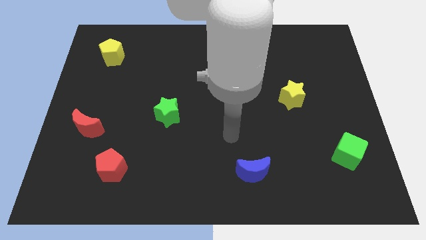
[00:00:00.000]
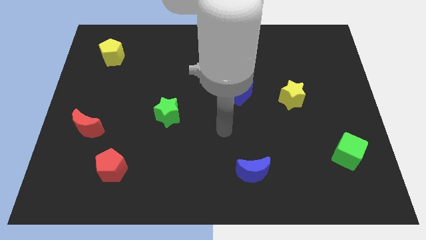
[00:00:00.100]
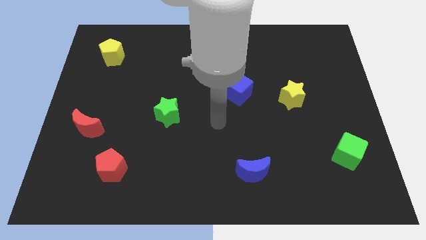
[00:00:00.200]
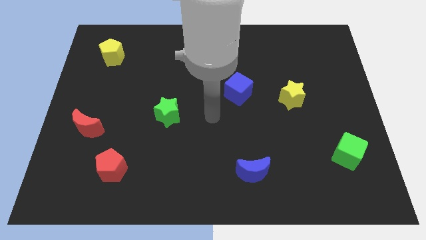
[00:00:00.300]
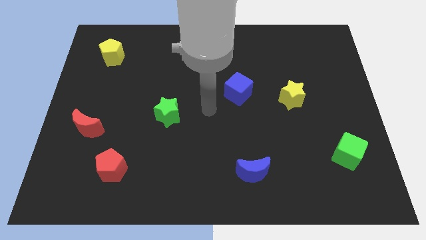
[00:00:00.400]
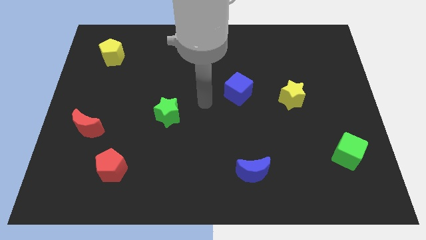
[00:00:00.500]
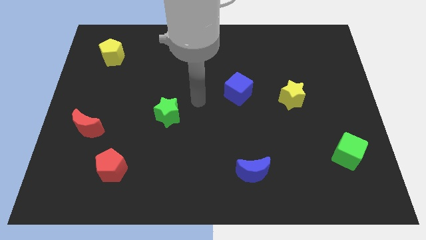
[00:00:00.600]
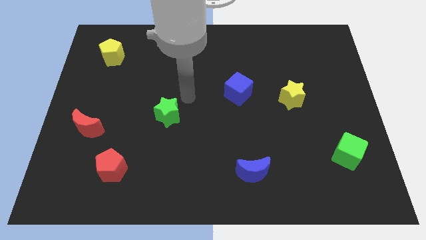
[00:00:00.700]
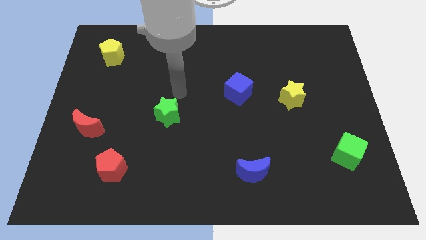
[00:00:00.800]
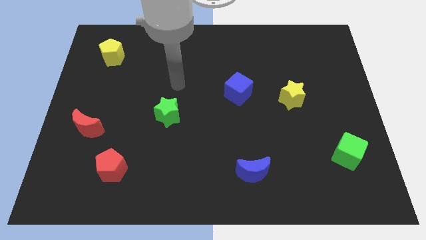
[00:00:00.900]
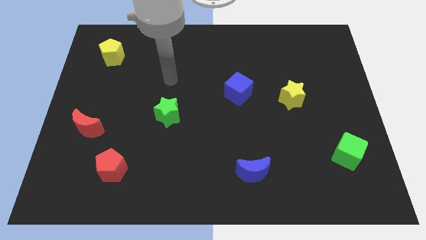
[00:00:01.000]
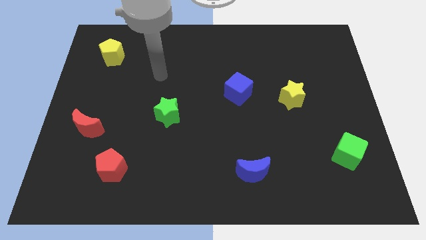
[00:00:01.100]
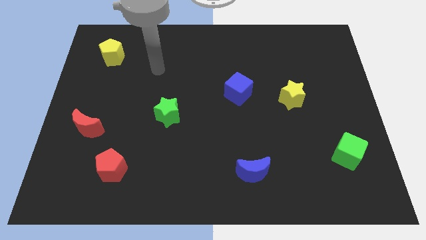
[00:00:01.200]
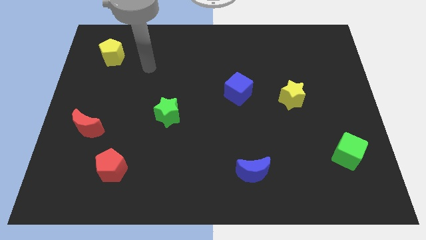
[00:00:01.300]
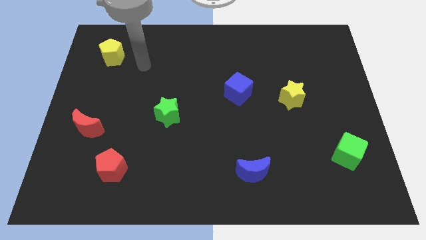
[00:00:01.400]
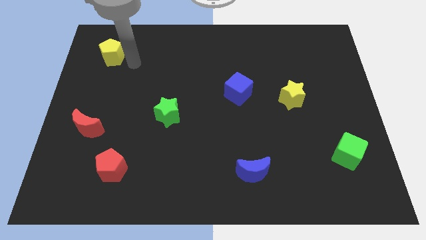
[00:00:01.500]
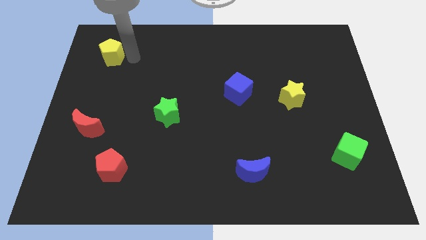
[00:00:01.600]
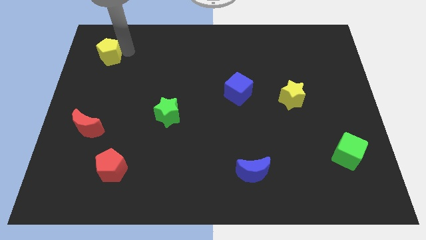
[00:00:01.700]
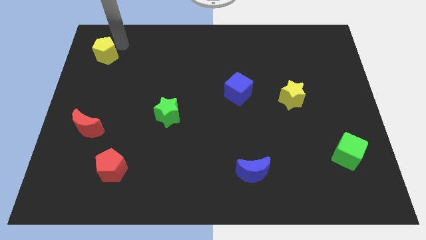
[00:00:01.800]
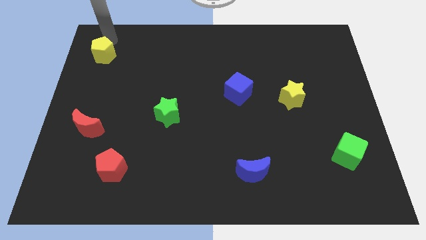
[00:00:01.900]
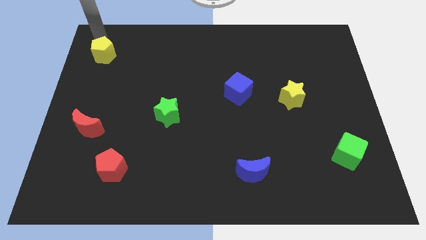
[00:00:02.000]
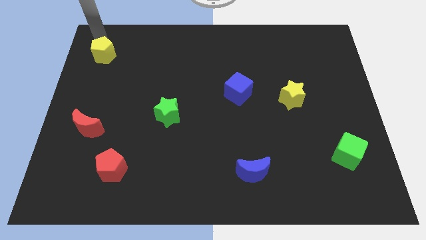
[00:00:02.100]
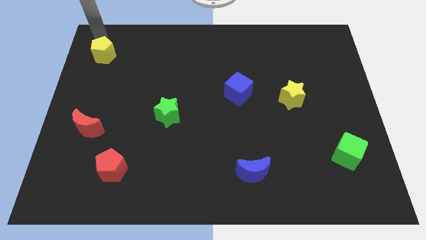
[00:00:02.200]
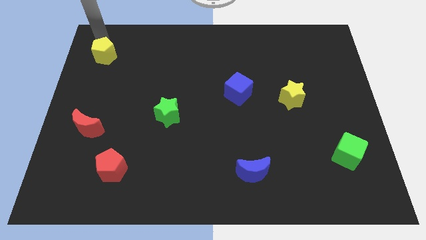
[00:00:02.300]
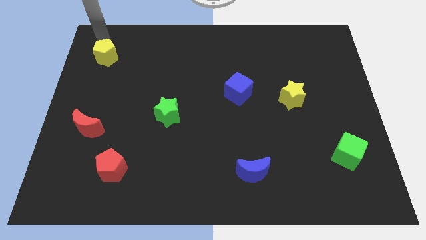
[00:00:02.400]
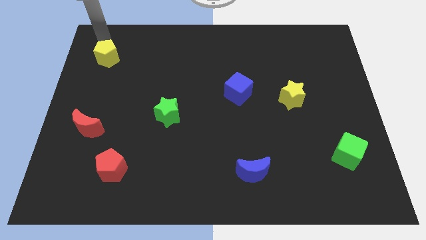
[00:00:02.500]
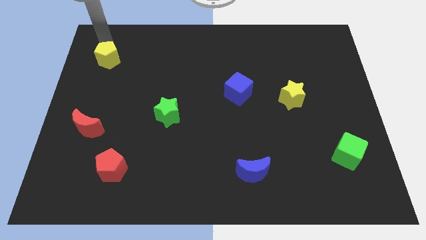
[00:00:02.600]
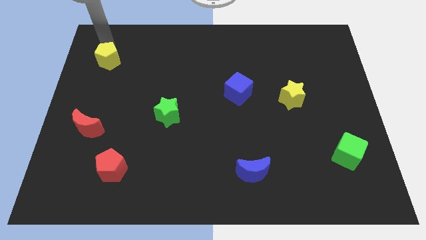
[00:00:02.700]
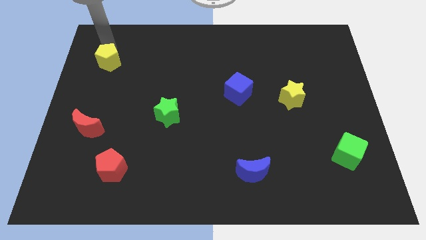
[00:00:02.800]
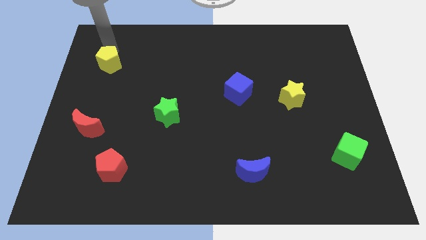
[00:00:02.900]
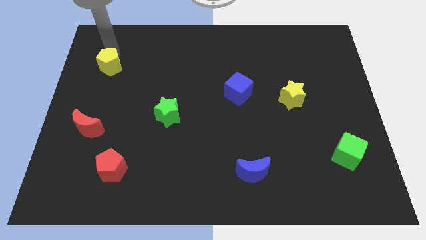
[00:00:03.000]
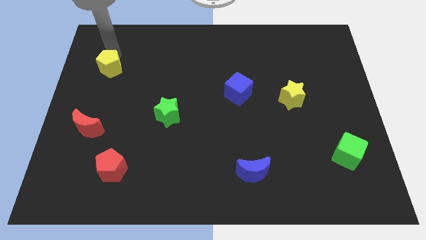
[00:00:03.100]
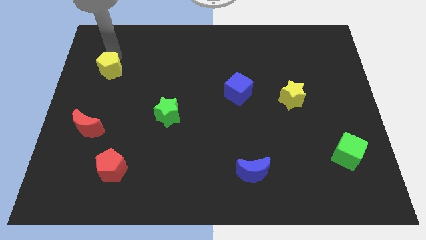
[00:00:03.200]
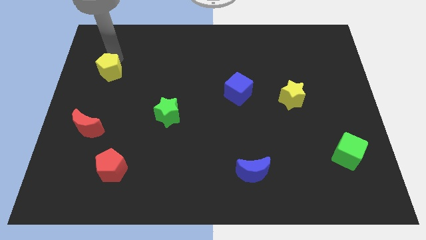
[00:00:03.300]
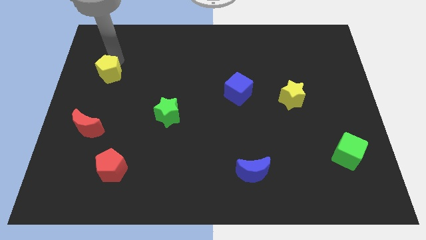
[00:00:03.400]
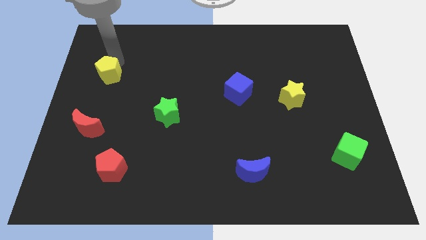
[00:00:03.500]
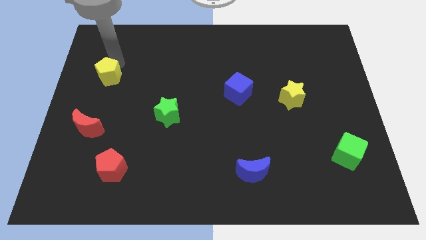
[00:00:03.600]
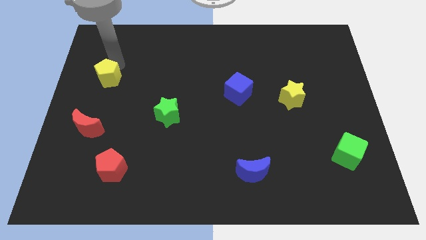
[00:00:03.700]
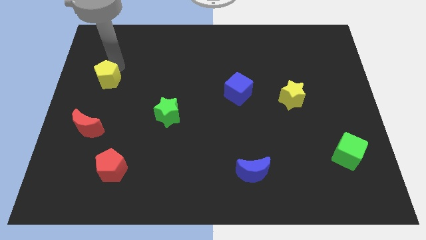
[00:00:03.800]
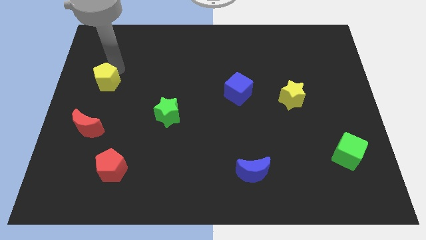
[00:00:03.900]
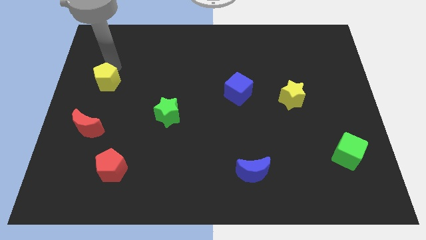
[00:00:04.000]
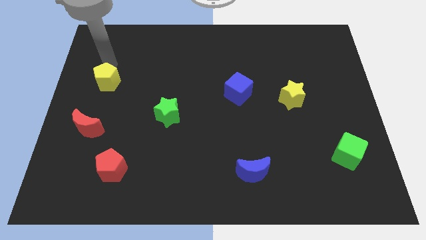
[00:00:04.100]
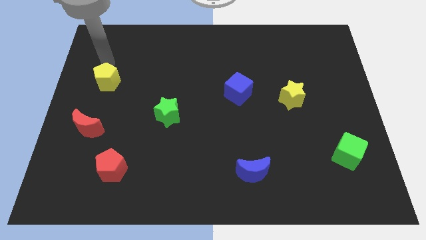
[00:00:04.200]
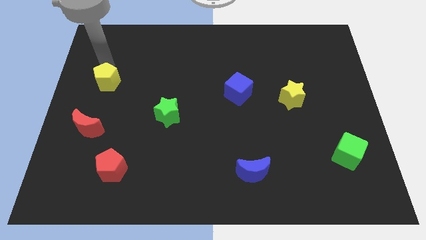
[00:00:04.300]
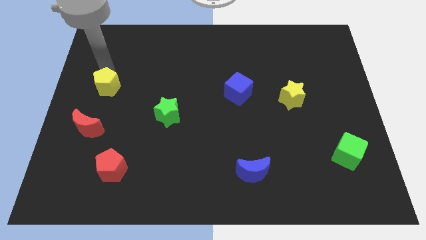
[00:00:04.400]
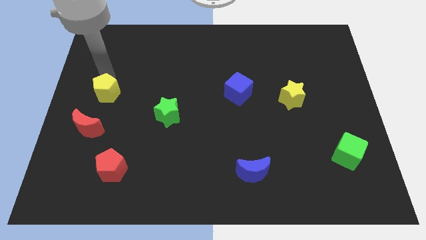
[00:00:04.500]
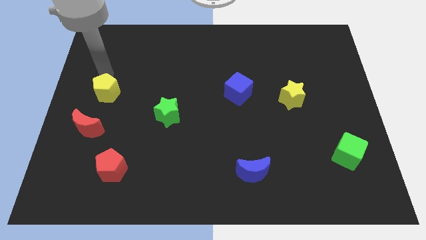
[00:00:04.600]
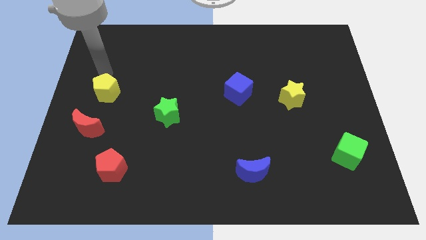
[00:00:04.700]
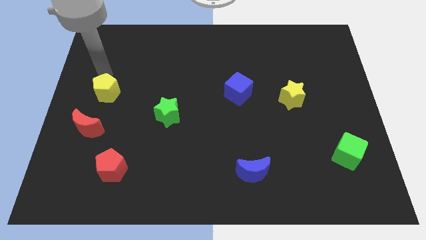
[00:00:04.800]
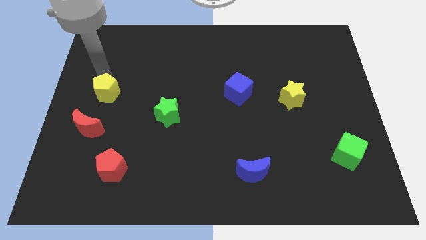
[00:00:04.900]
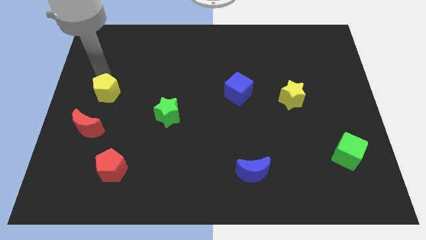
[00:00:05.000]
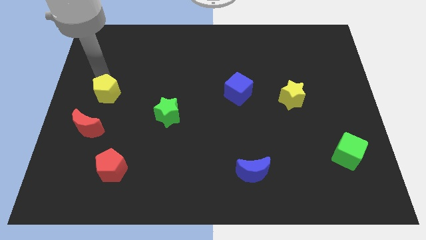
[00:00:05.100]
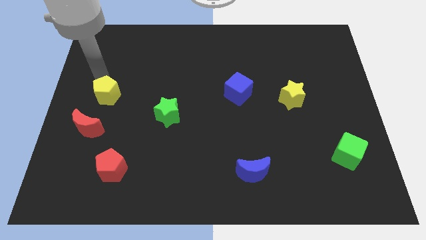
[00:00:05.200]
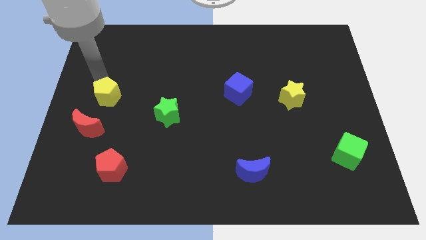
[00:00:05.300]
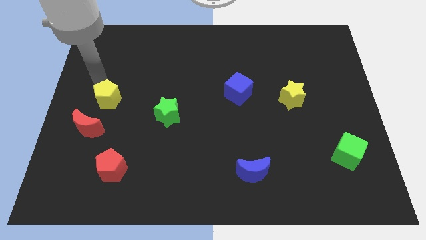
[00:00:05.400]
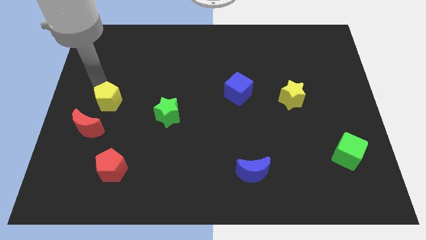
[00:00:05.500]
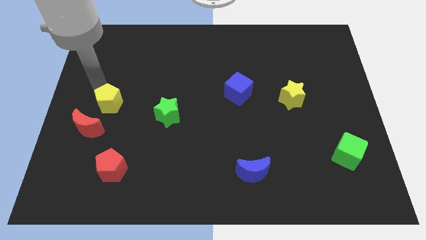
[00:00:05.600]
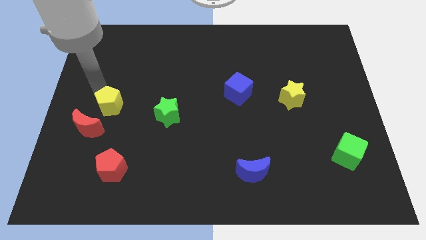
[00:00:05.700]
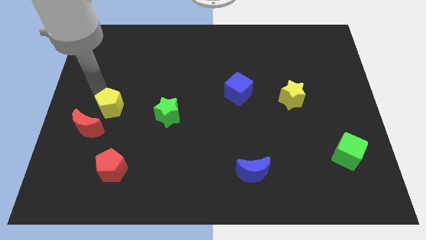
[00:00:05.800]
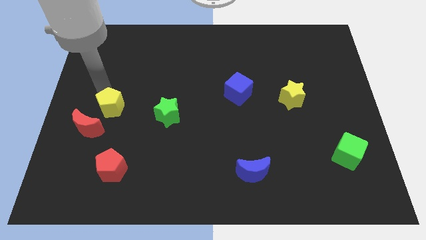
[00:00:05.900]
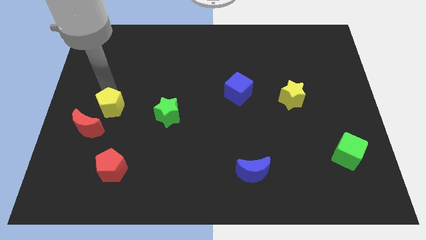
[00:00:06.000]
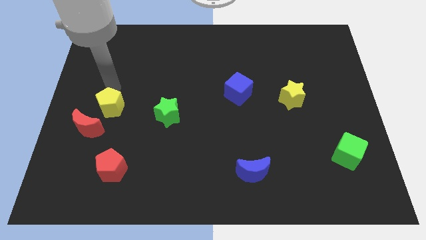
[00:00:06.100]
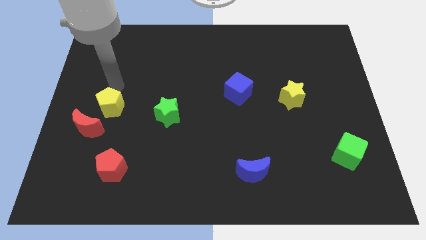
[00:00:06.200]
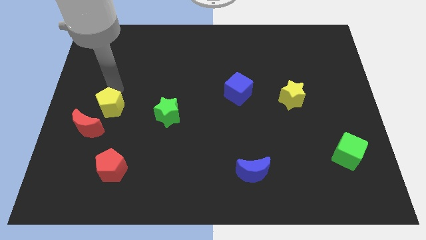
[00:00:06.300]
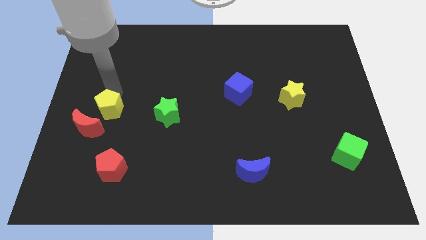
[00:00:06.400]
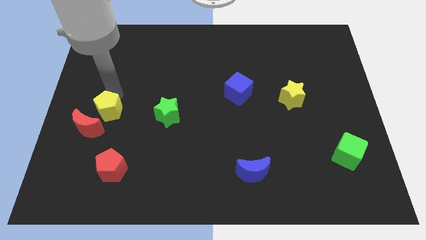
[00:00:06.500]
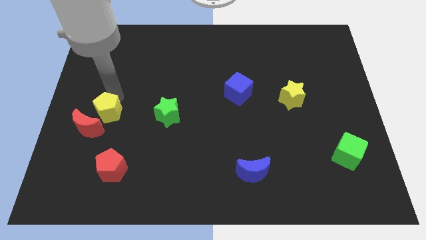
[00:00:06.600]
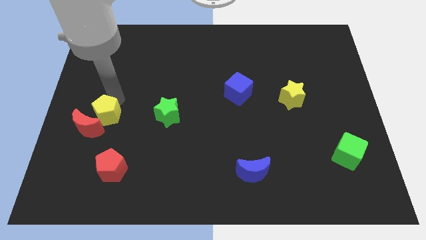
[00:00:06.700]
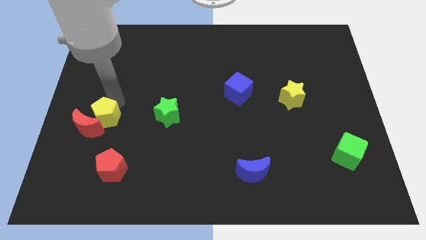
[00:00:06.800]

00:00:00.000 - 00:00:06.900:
move the yellow pentagon down

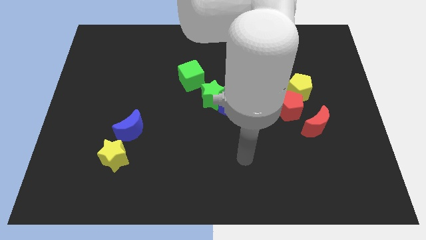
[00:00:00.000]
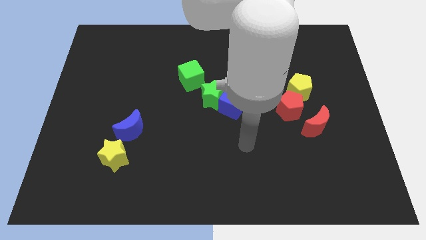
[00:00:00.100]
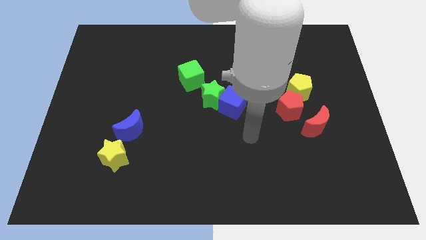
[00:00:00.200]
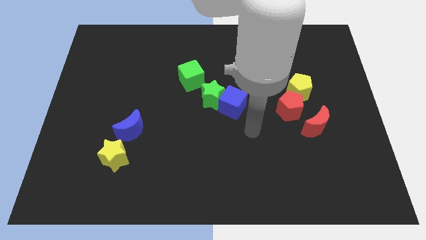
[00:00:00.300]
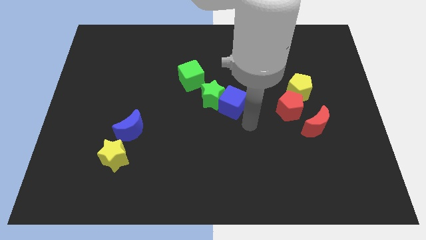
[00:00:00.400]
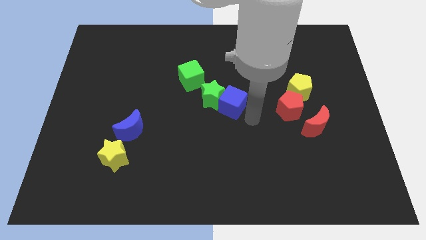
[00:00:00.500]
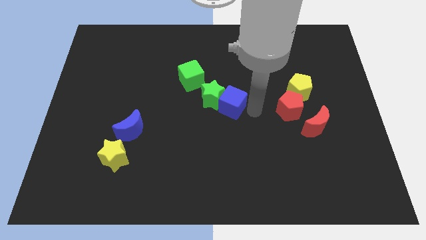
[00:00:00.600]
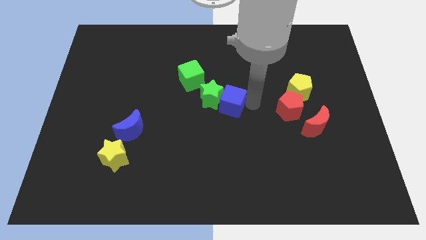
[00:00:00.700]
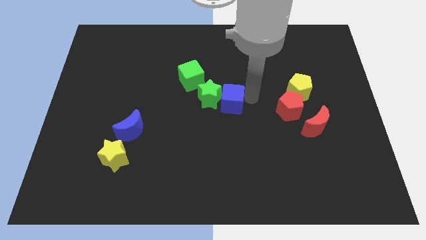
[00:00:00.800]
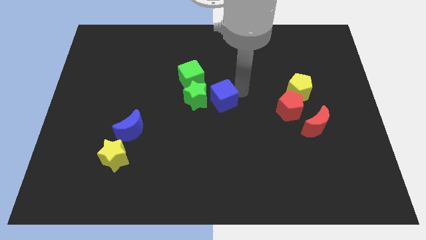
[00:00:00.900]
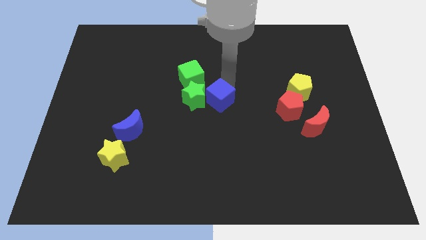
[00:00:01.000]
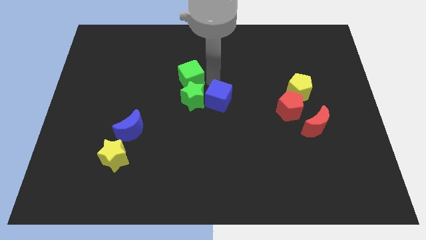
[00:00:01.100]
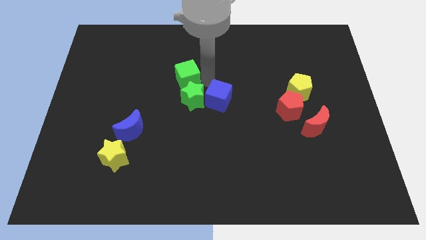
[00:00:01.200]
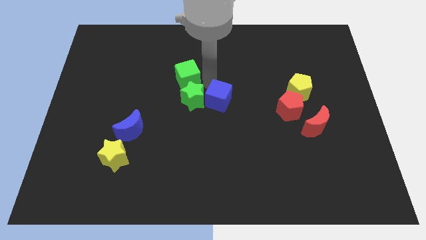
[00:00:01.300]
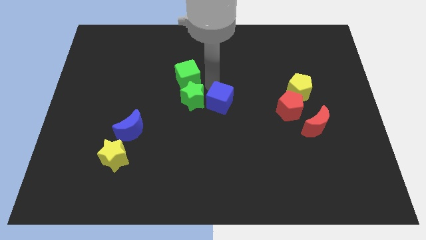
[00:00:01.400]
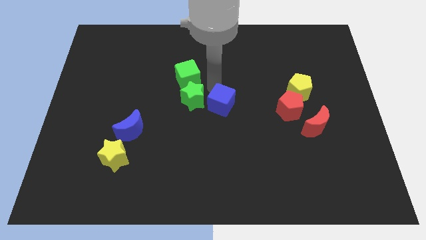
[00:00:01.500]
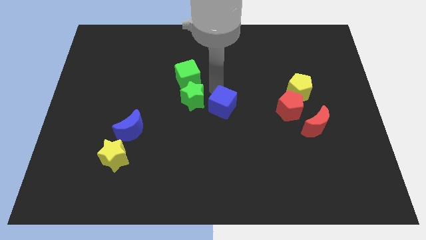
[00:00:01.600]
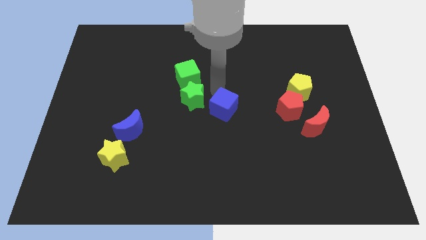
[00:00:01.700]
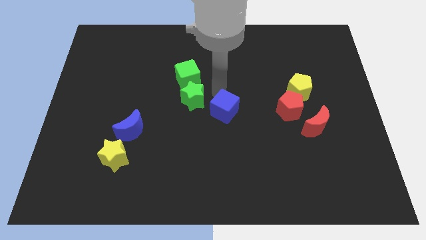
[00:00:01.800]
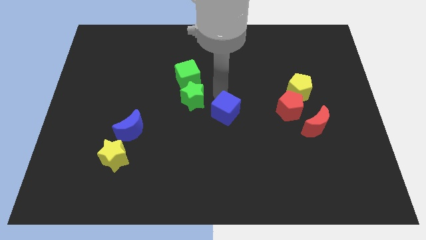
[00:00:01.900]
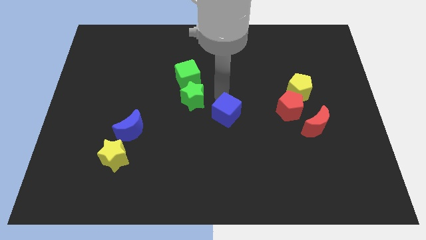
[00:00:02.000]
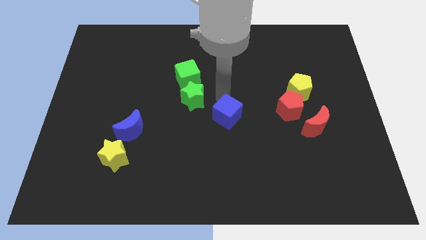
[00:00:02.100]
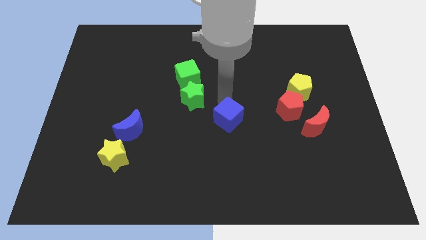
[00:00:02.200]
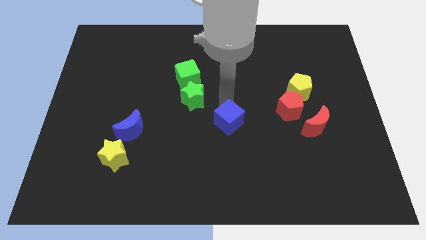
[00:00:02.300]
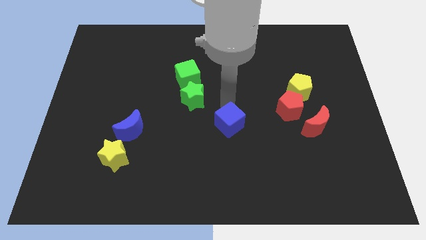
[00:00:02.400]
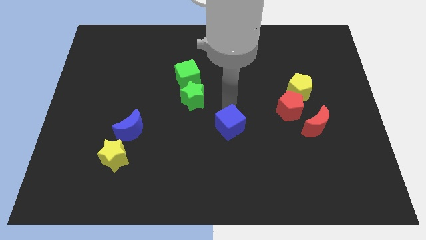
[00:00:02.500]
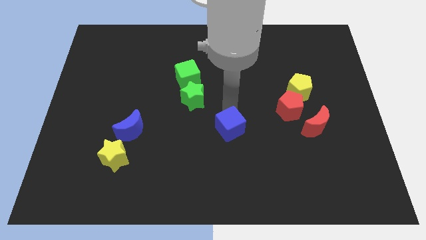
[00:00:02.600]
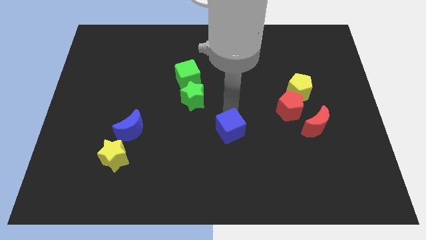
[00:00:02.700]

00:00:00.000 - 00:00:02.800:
move the blue cube downwards a little bit
